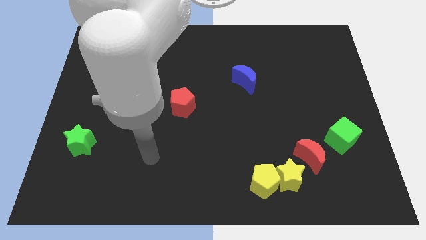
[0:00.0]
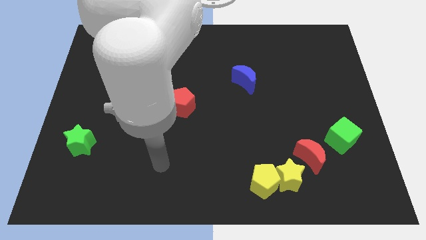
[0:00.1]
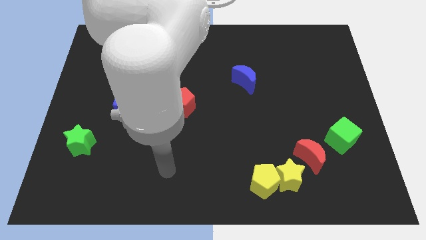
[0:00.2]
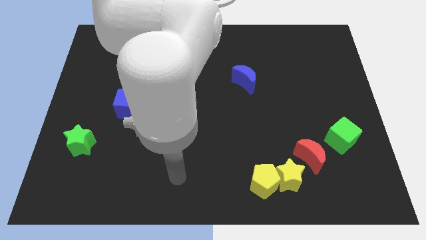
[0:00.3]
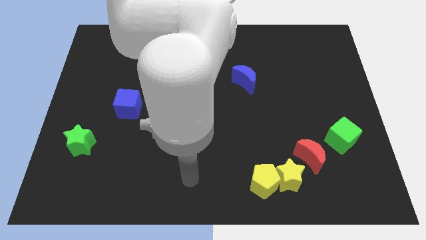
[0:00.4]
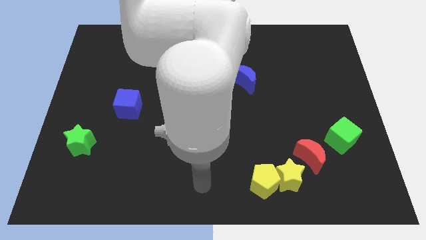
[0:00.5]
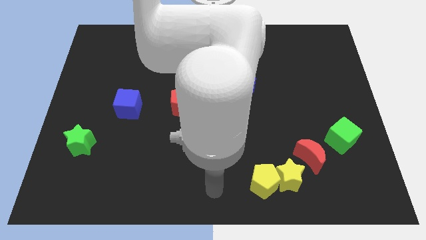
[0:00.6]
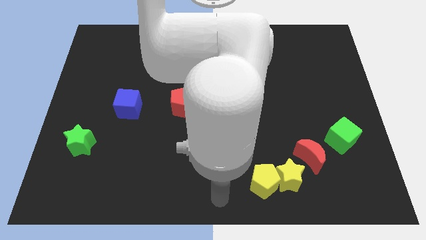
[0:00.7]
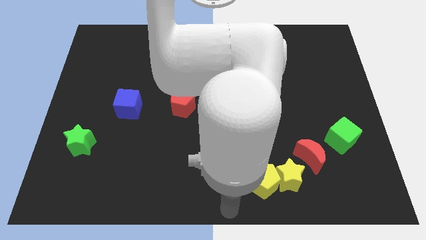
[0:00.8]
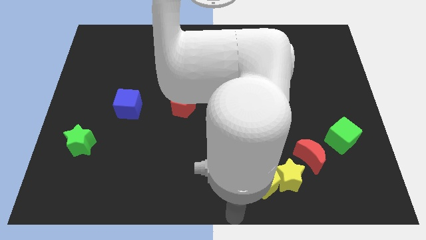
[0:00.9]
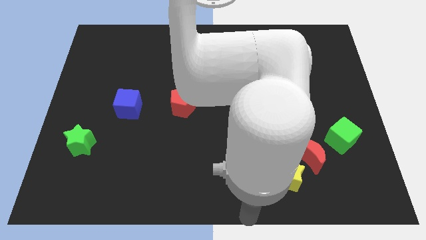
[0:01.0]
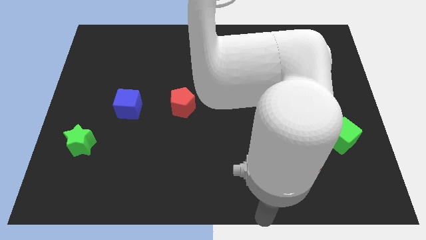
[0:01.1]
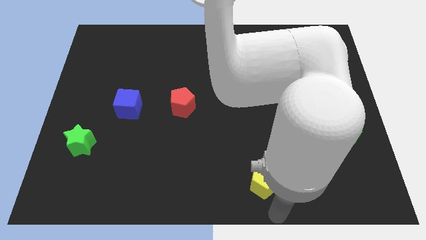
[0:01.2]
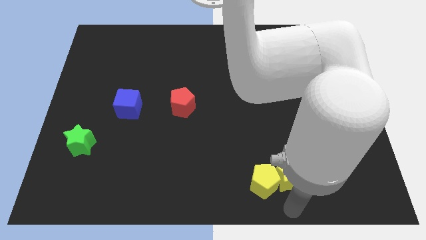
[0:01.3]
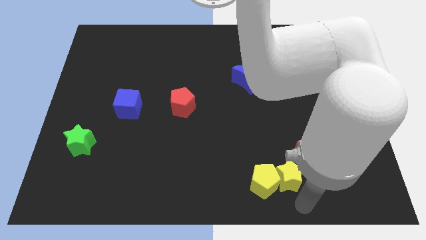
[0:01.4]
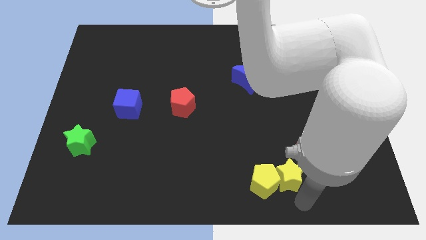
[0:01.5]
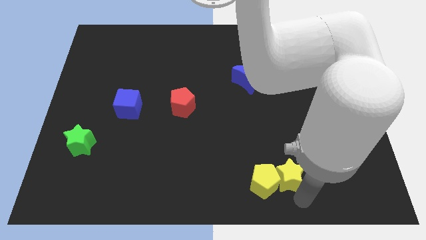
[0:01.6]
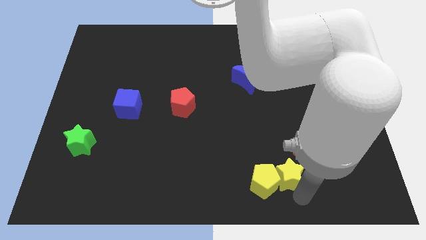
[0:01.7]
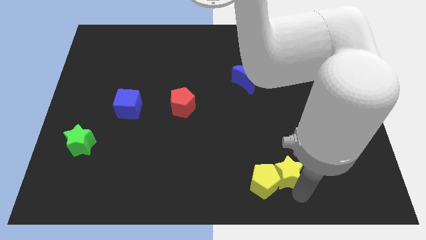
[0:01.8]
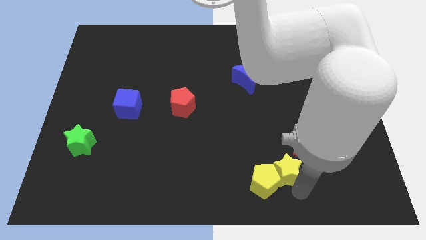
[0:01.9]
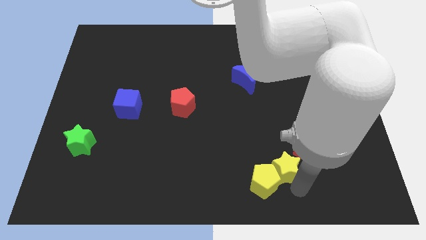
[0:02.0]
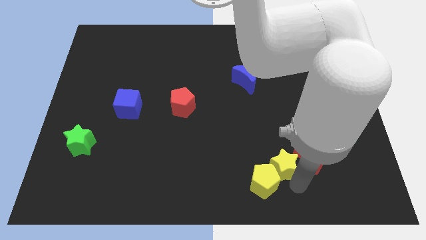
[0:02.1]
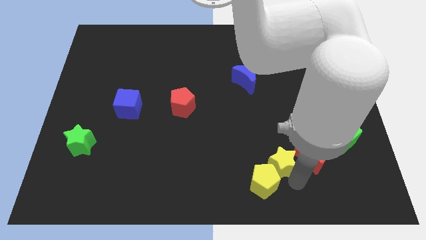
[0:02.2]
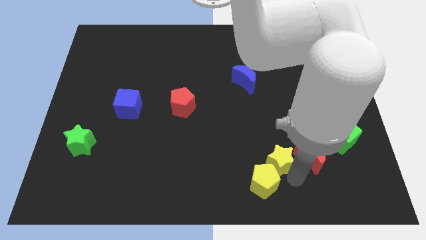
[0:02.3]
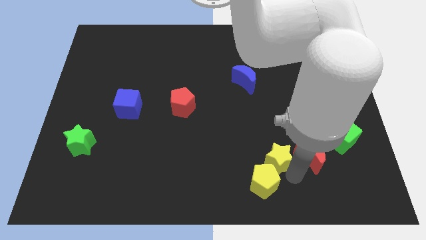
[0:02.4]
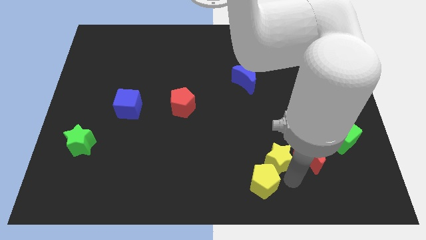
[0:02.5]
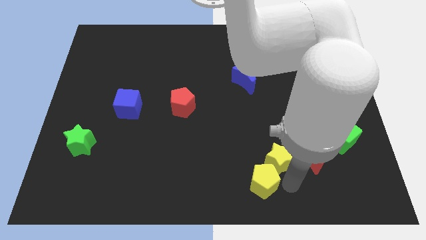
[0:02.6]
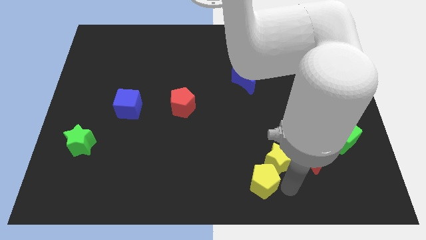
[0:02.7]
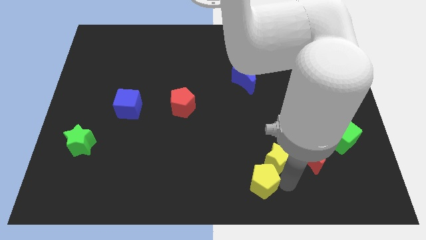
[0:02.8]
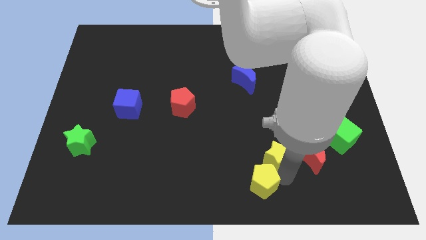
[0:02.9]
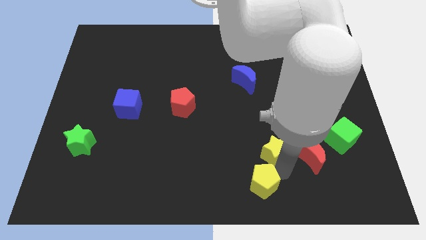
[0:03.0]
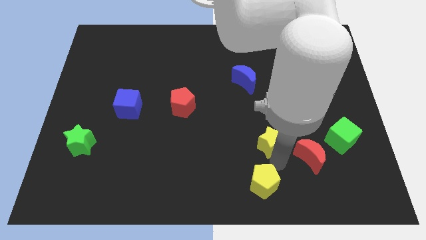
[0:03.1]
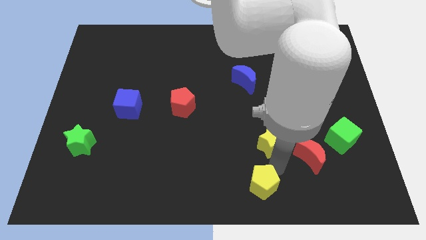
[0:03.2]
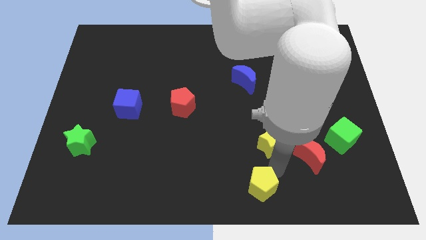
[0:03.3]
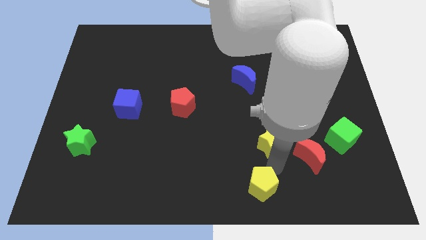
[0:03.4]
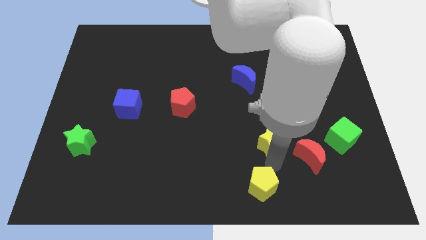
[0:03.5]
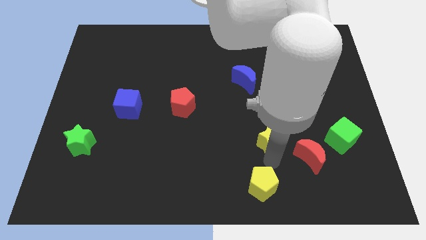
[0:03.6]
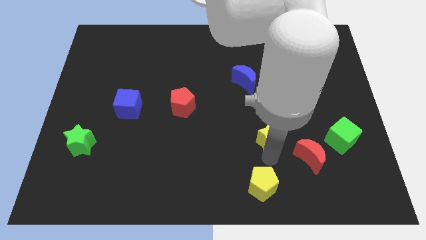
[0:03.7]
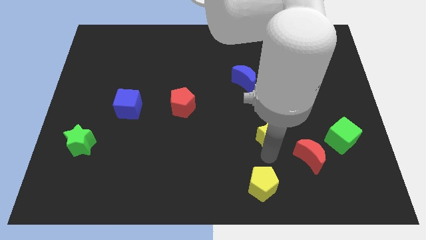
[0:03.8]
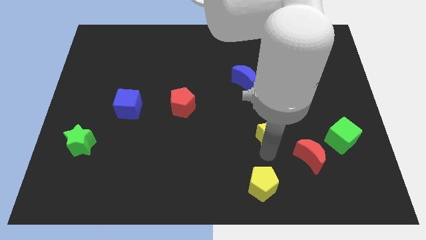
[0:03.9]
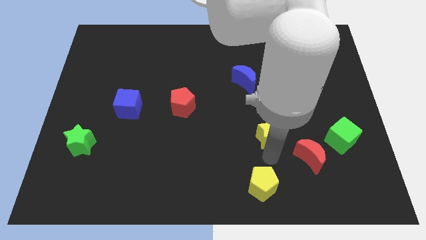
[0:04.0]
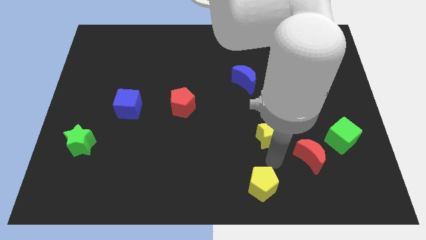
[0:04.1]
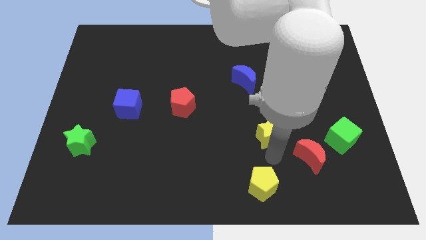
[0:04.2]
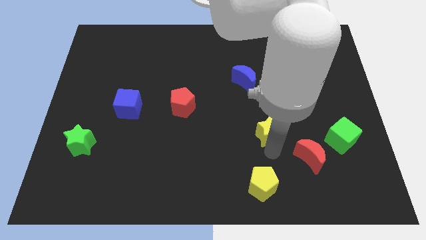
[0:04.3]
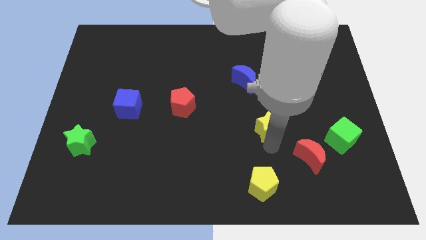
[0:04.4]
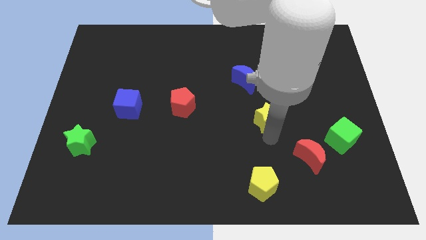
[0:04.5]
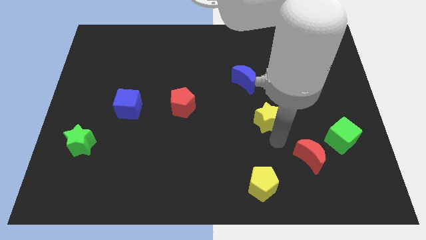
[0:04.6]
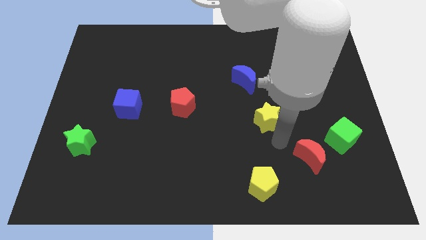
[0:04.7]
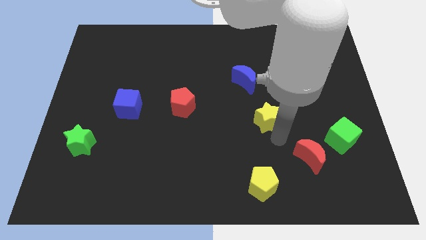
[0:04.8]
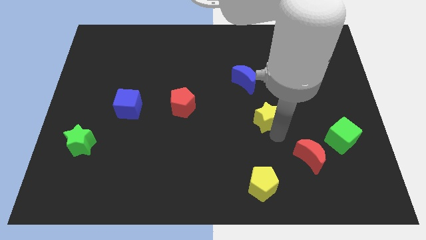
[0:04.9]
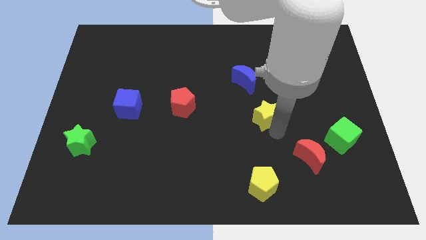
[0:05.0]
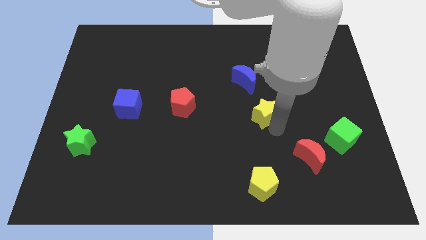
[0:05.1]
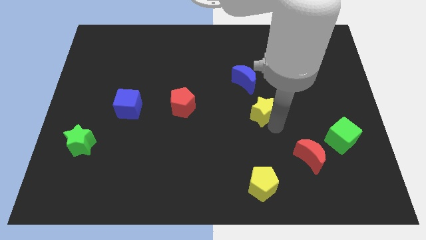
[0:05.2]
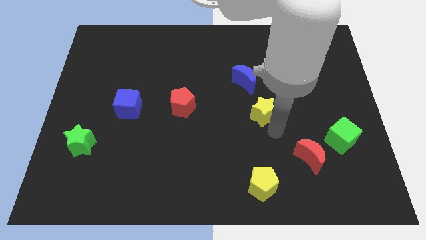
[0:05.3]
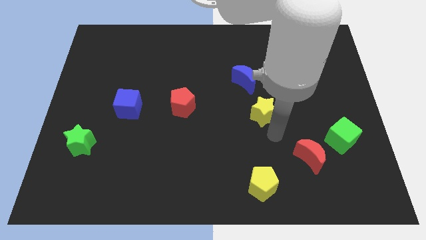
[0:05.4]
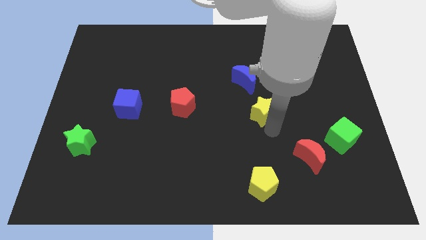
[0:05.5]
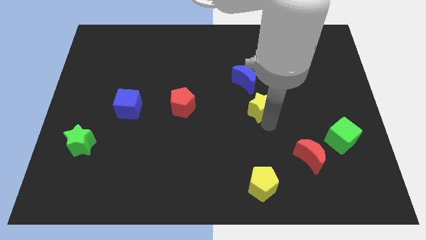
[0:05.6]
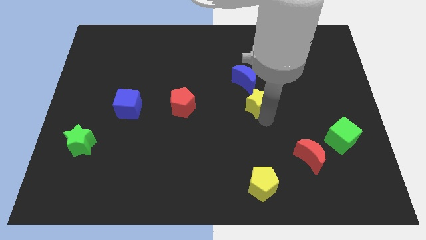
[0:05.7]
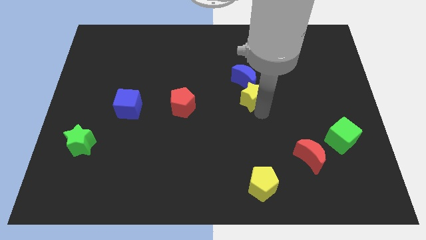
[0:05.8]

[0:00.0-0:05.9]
slide the yellow star next to the blue moon

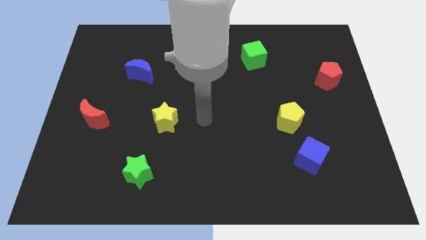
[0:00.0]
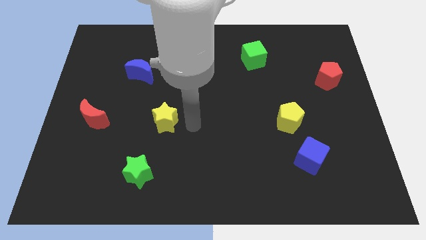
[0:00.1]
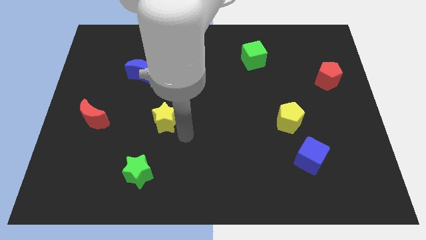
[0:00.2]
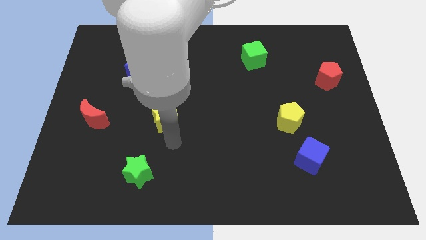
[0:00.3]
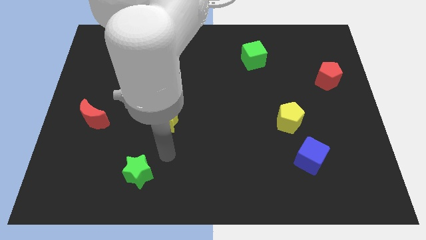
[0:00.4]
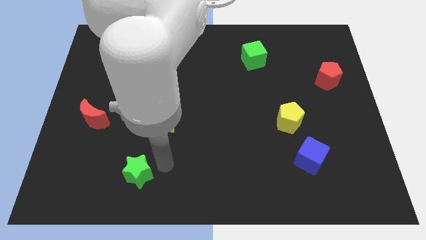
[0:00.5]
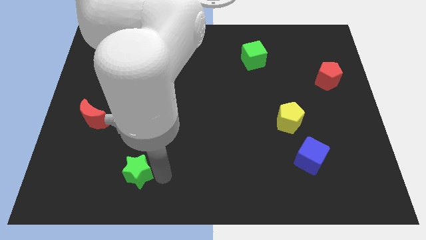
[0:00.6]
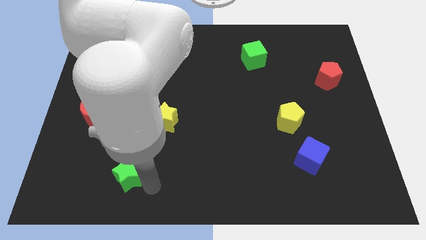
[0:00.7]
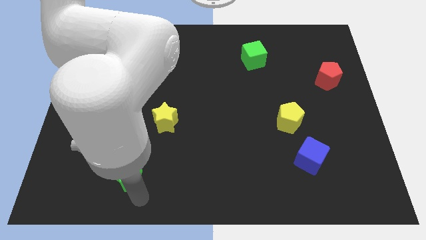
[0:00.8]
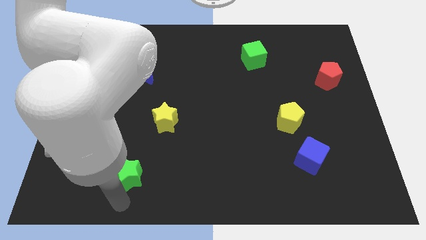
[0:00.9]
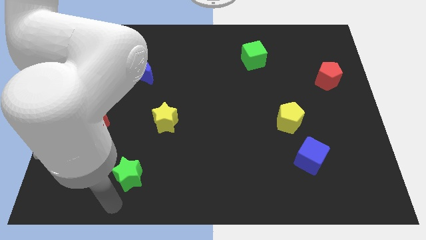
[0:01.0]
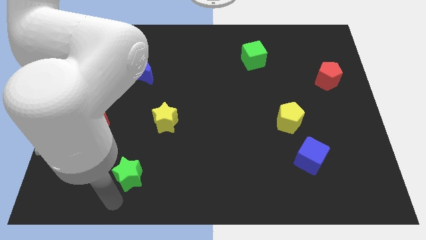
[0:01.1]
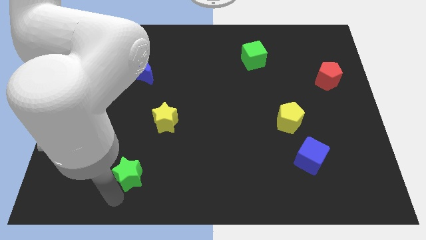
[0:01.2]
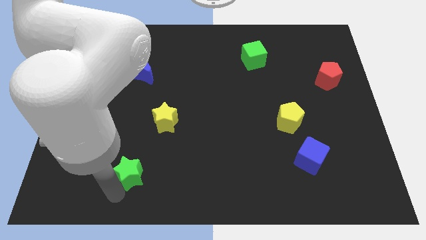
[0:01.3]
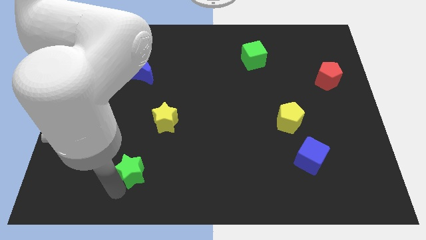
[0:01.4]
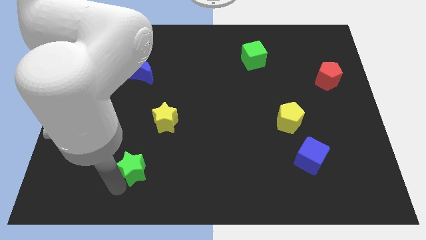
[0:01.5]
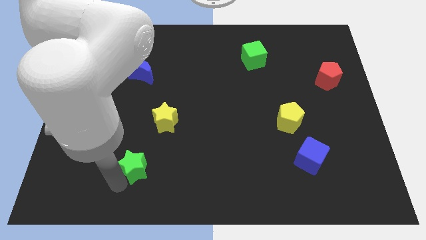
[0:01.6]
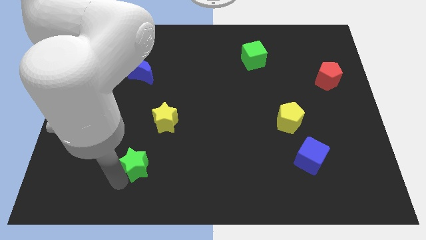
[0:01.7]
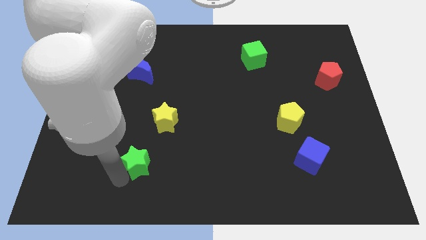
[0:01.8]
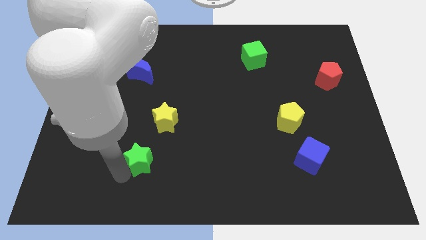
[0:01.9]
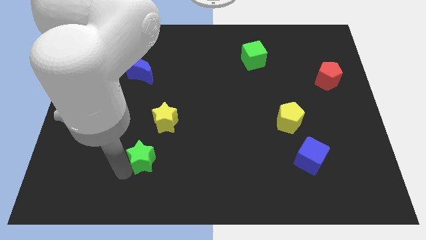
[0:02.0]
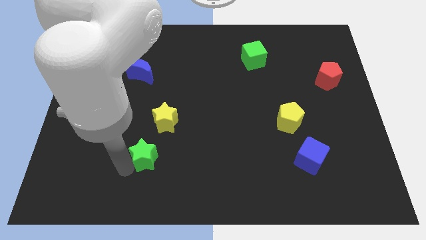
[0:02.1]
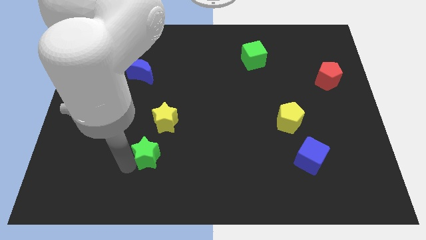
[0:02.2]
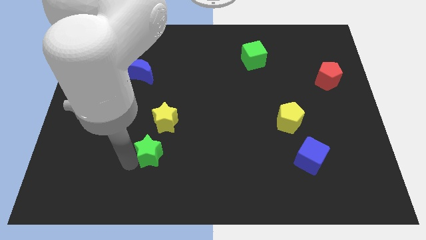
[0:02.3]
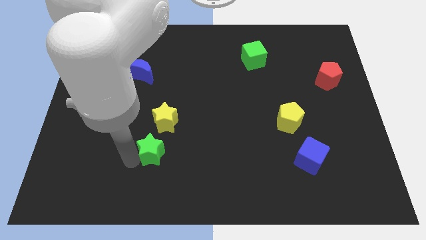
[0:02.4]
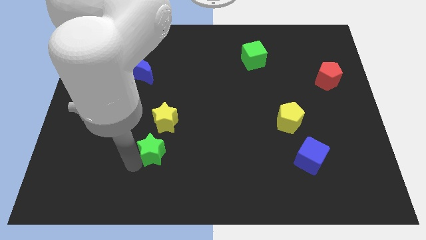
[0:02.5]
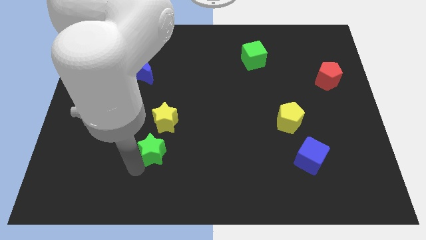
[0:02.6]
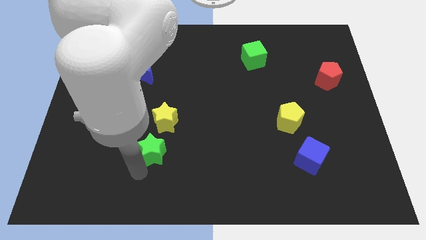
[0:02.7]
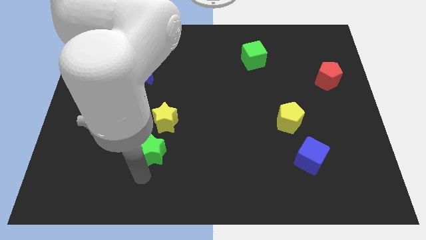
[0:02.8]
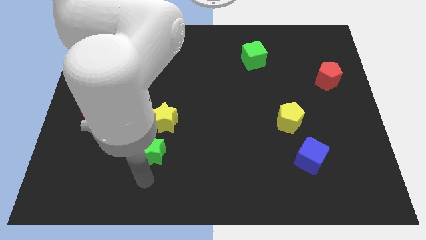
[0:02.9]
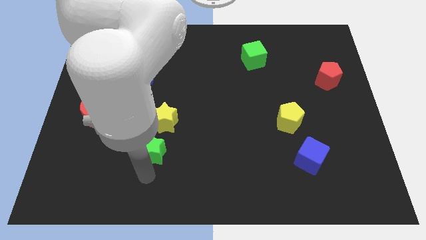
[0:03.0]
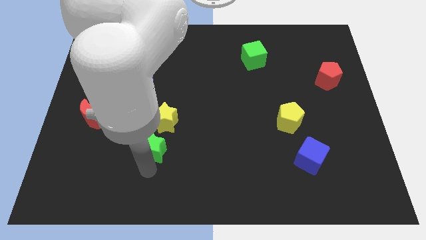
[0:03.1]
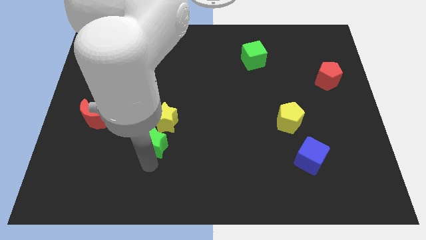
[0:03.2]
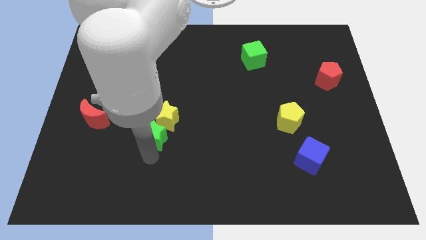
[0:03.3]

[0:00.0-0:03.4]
push the green star next to the yellow star
